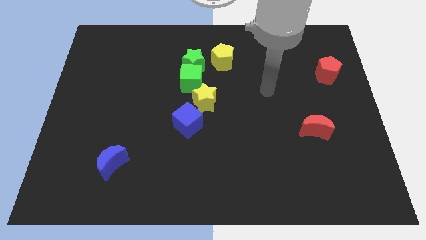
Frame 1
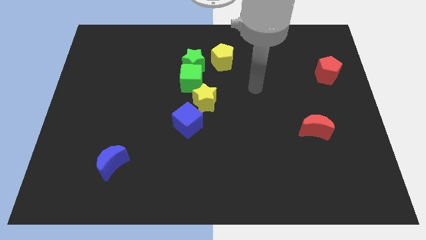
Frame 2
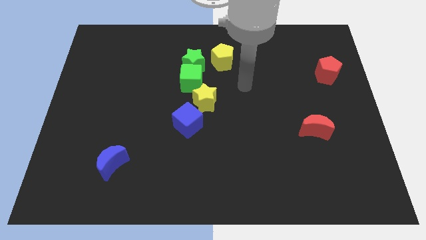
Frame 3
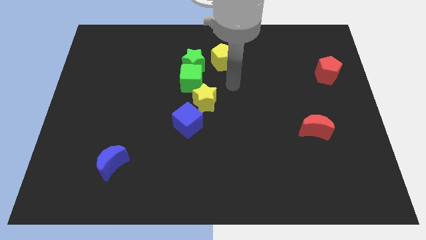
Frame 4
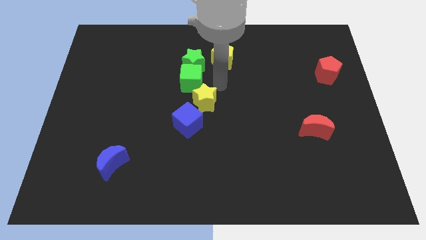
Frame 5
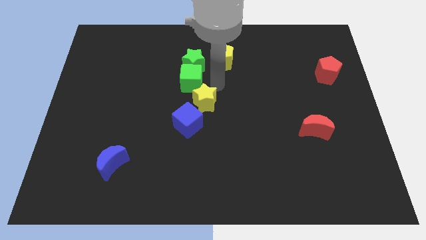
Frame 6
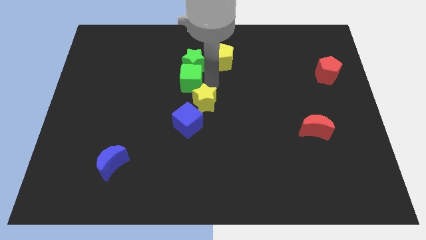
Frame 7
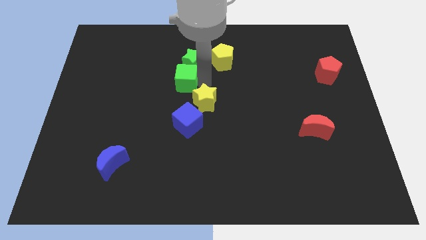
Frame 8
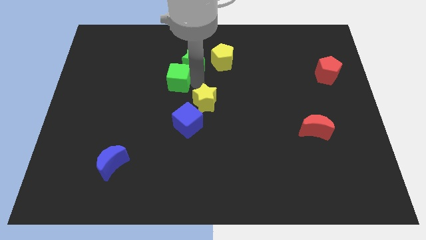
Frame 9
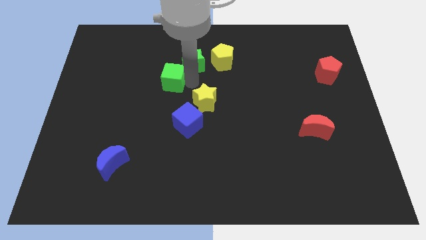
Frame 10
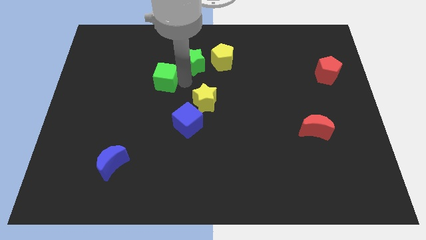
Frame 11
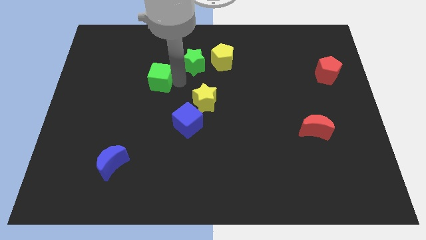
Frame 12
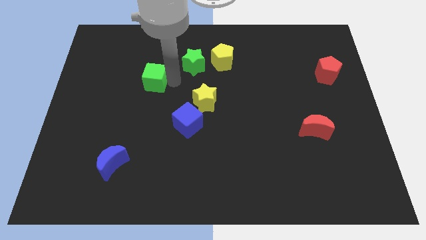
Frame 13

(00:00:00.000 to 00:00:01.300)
pull the green cube apart from the green star and yellow star

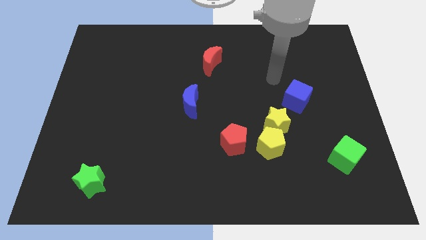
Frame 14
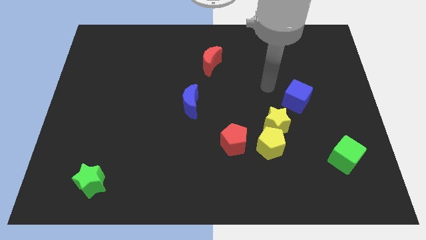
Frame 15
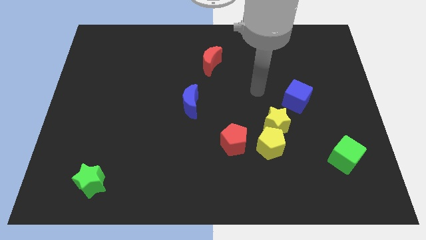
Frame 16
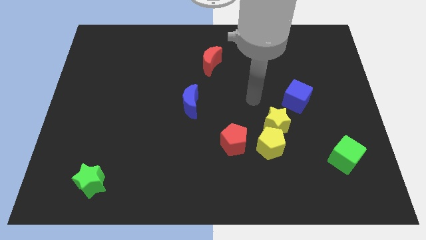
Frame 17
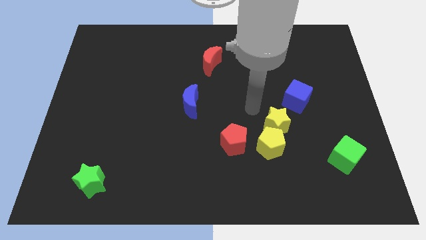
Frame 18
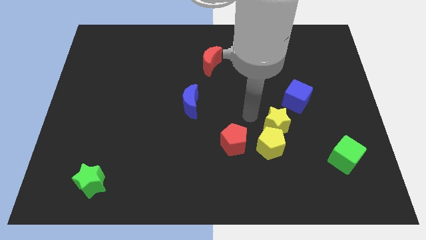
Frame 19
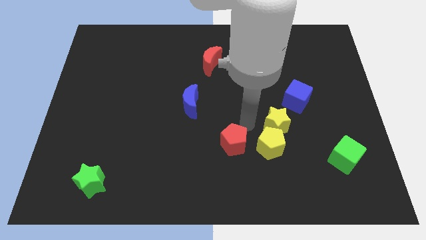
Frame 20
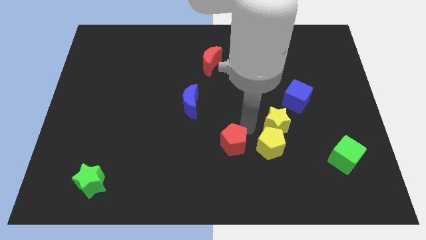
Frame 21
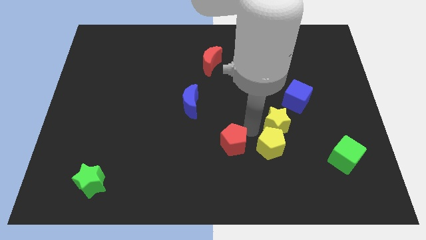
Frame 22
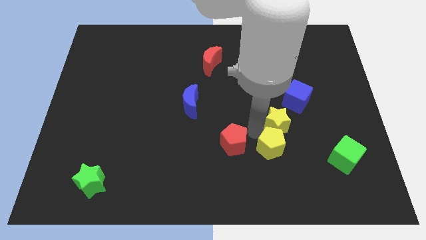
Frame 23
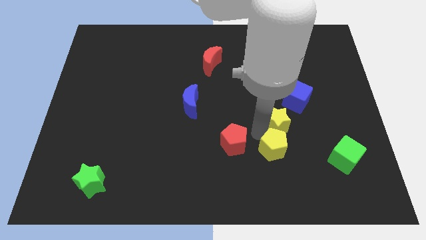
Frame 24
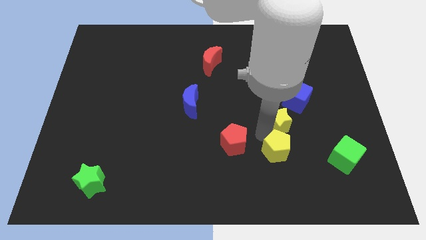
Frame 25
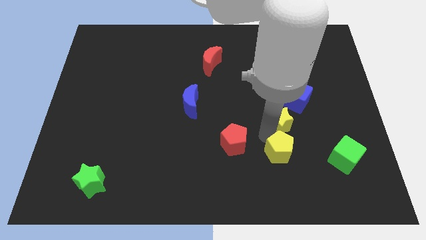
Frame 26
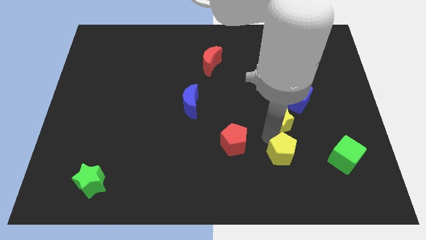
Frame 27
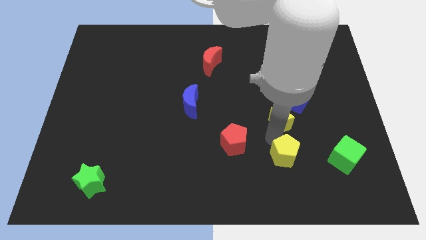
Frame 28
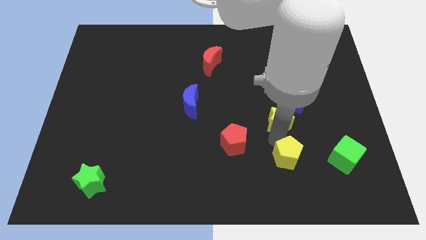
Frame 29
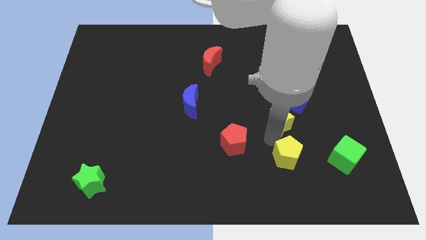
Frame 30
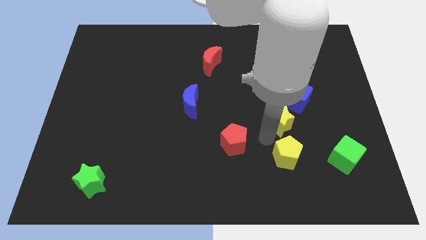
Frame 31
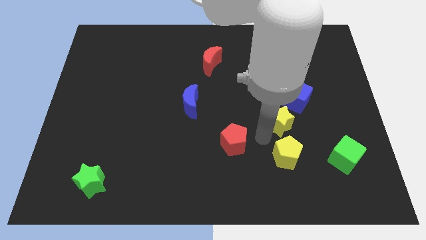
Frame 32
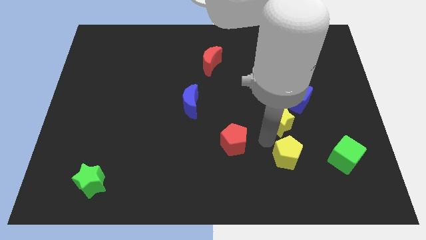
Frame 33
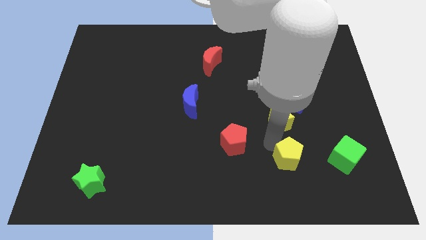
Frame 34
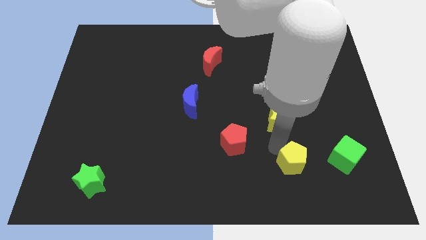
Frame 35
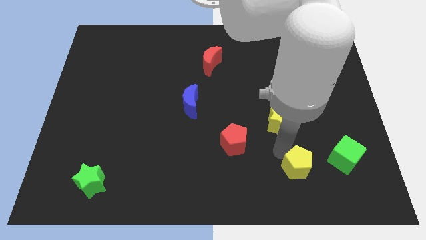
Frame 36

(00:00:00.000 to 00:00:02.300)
pull the yellow pentagon apart from the yellow star and red pentagon

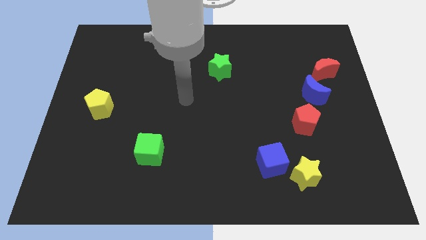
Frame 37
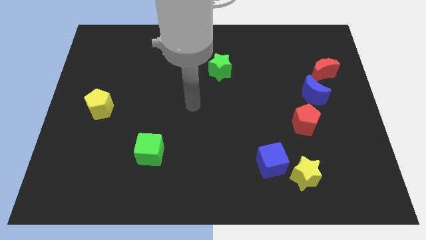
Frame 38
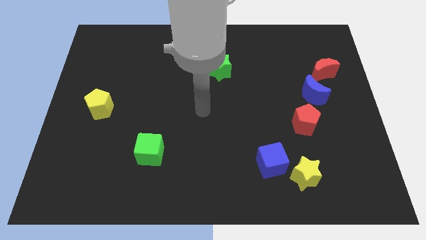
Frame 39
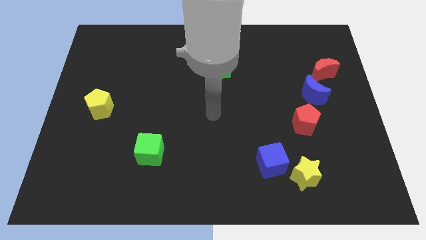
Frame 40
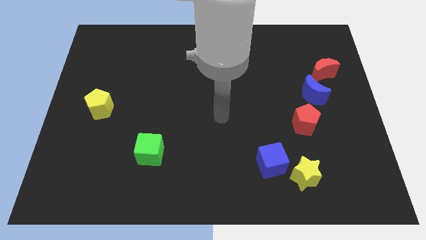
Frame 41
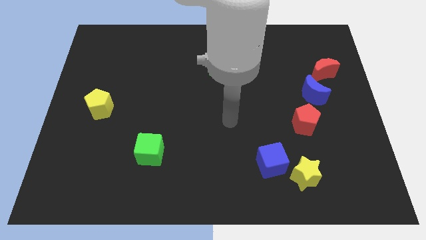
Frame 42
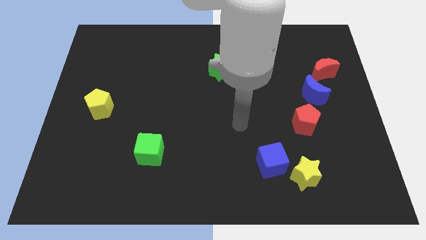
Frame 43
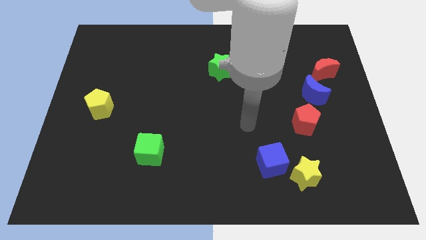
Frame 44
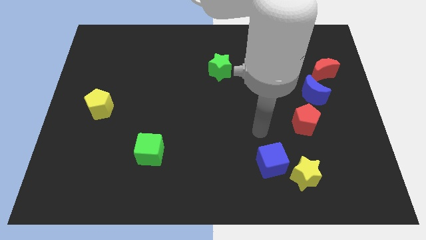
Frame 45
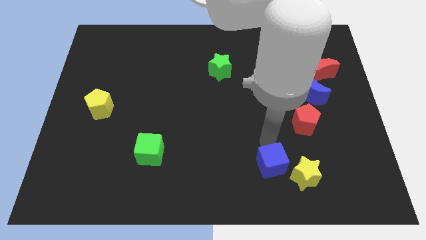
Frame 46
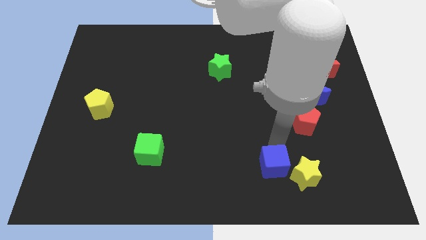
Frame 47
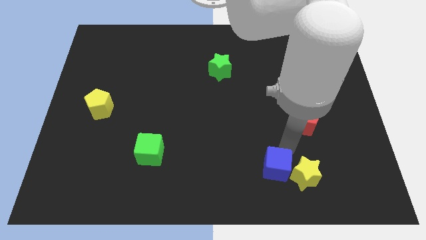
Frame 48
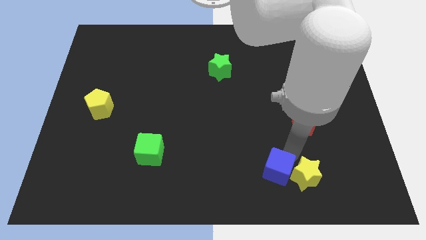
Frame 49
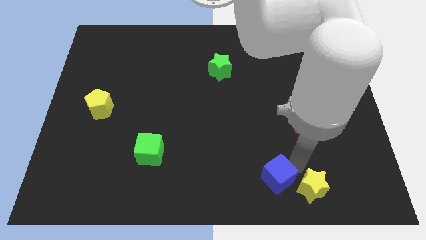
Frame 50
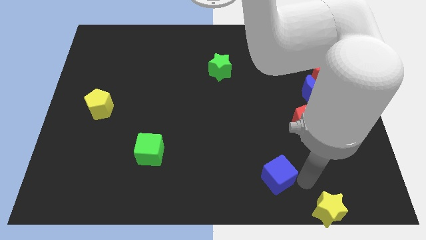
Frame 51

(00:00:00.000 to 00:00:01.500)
move the blue cube away from the yellow star

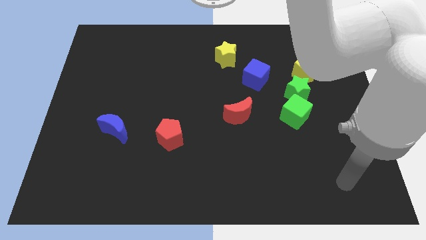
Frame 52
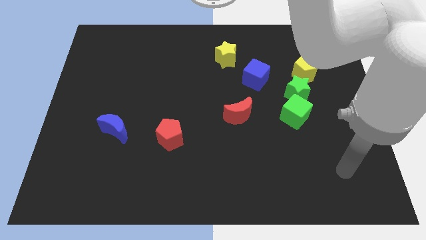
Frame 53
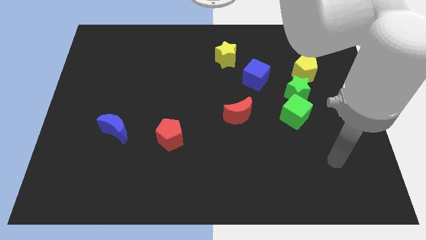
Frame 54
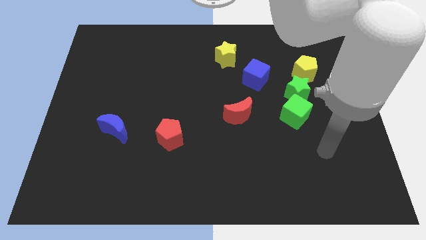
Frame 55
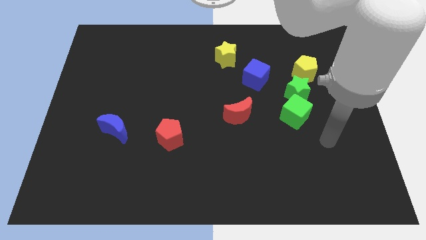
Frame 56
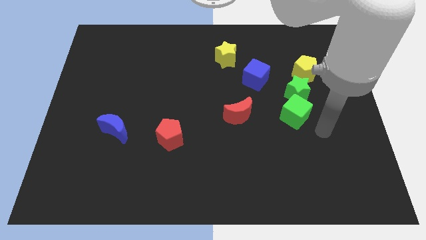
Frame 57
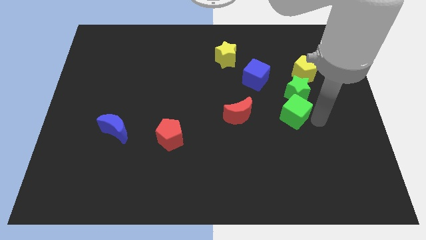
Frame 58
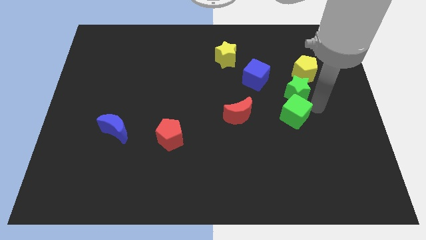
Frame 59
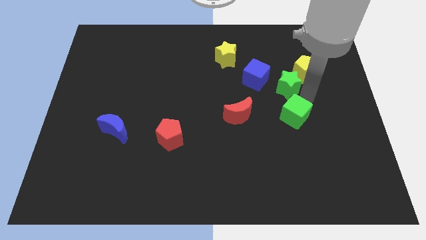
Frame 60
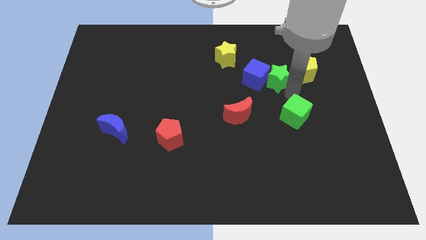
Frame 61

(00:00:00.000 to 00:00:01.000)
separate the green cube from the green star

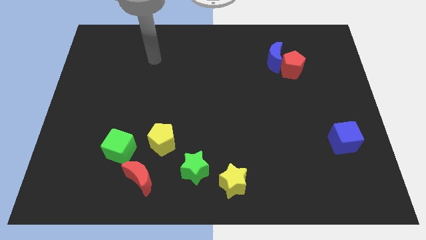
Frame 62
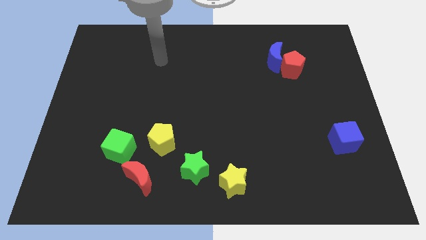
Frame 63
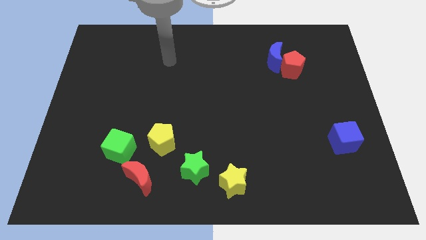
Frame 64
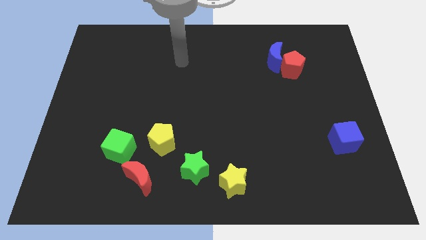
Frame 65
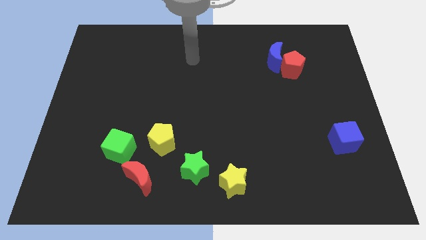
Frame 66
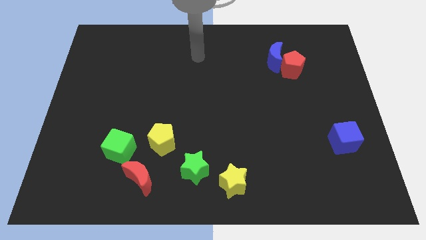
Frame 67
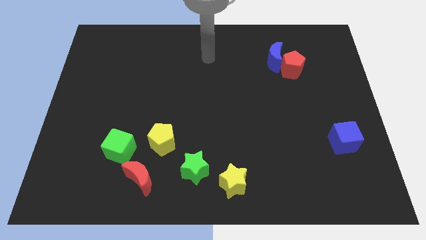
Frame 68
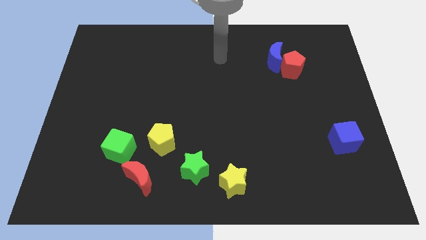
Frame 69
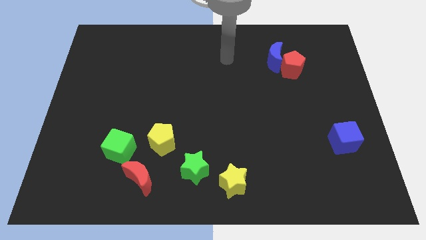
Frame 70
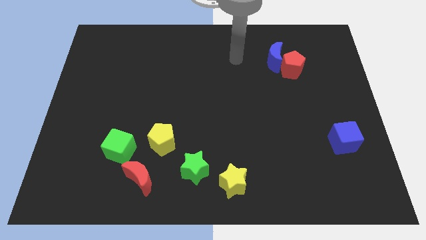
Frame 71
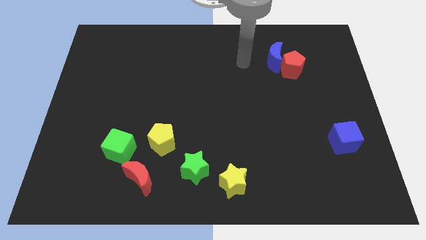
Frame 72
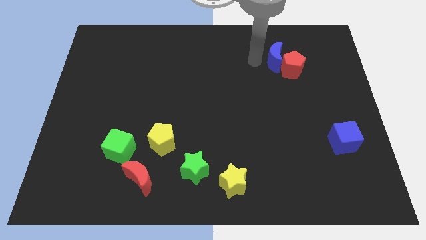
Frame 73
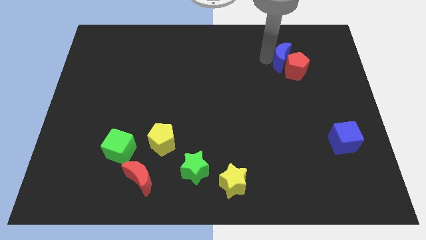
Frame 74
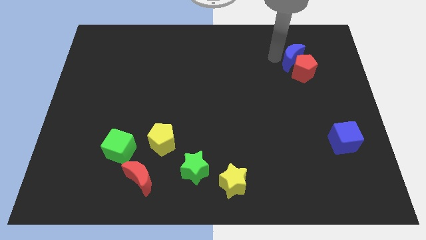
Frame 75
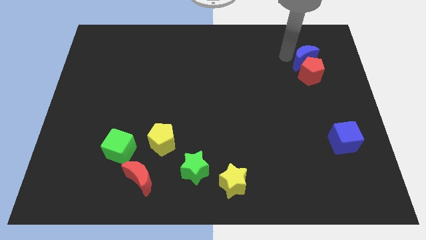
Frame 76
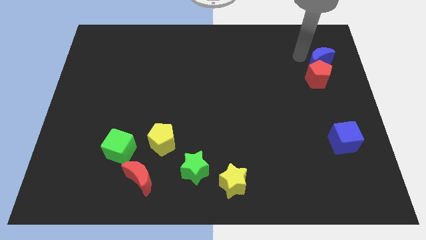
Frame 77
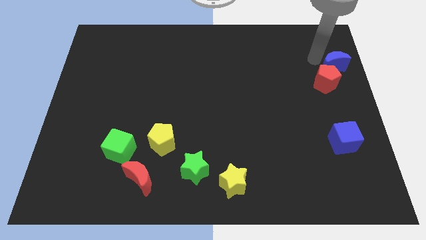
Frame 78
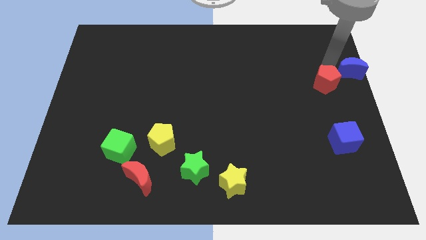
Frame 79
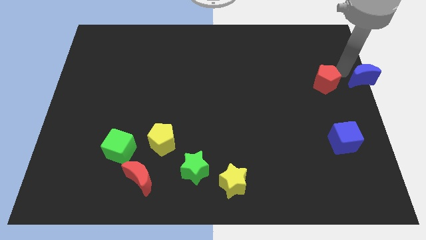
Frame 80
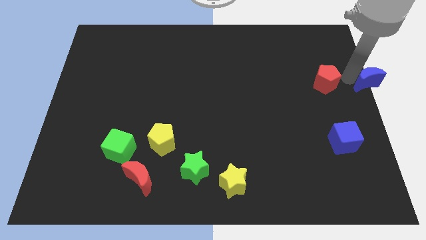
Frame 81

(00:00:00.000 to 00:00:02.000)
move the red pentagon away from the blue moon

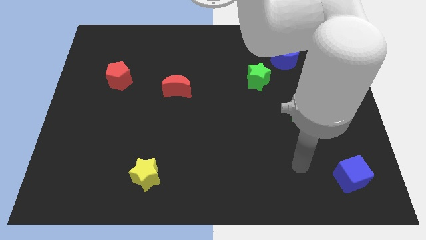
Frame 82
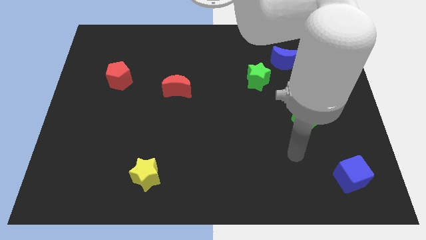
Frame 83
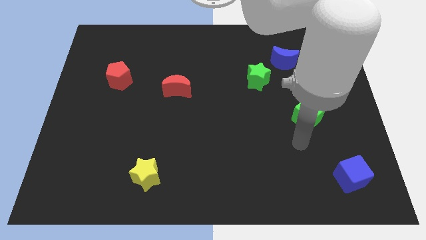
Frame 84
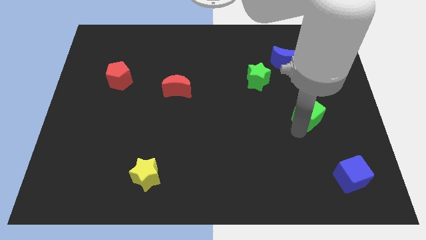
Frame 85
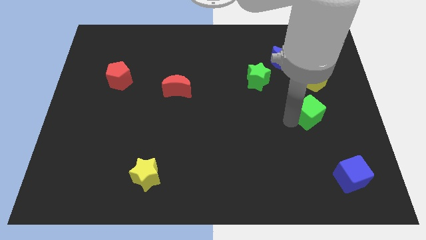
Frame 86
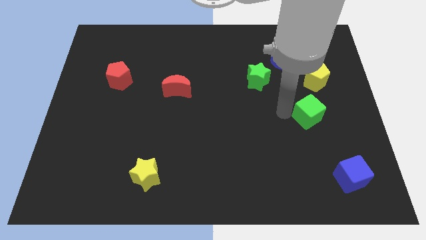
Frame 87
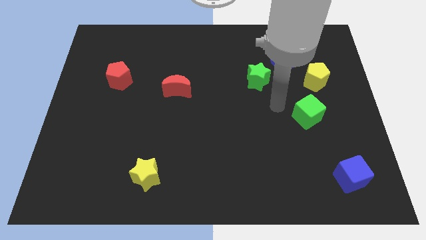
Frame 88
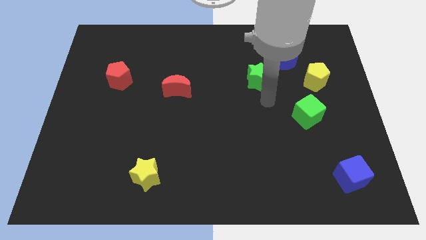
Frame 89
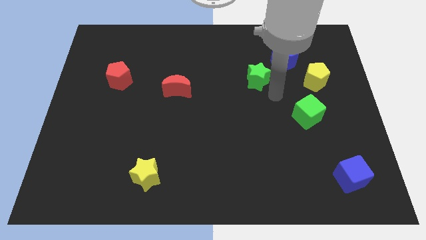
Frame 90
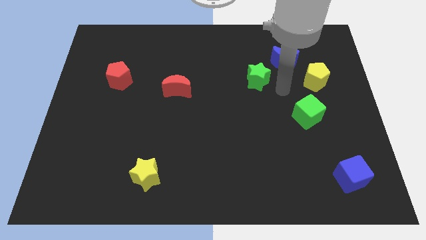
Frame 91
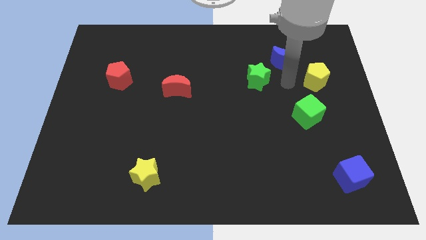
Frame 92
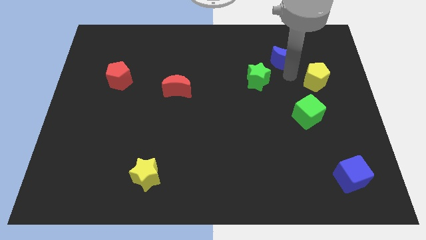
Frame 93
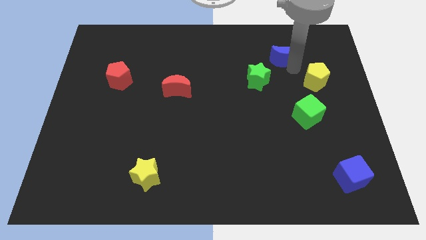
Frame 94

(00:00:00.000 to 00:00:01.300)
move the yellow pentagon away from the blue moon
